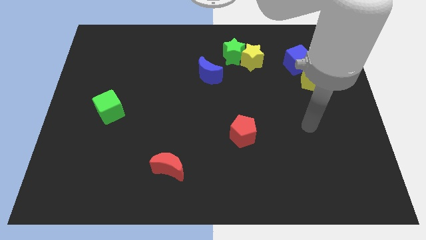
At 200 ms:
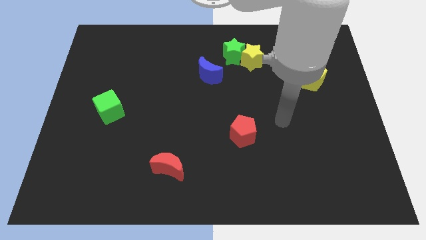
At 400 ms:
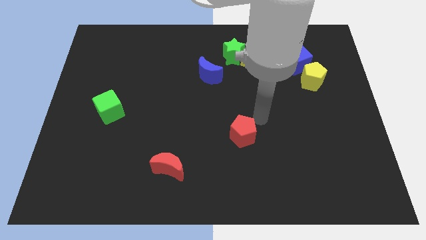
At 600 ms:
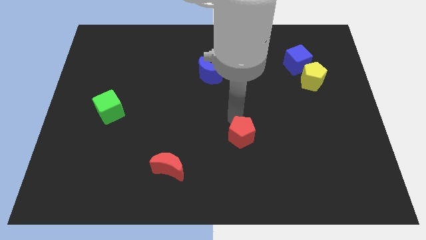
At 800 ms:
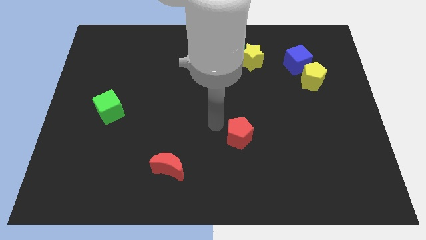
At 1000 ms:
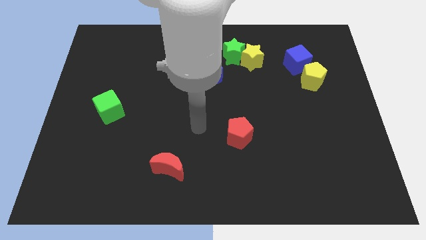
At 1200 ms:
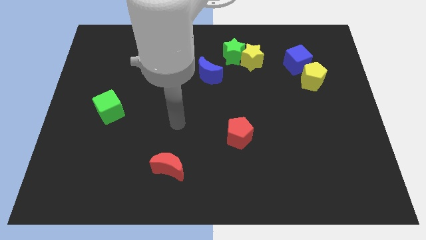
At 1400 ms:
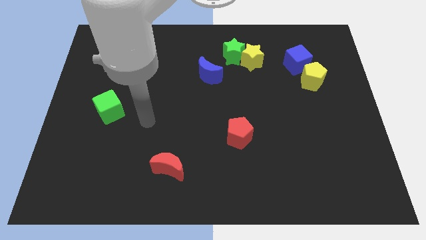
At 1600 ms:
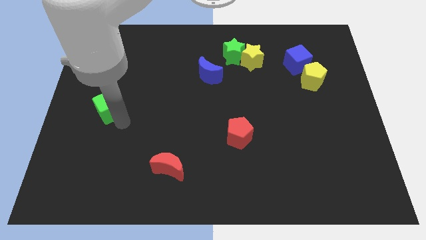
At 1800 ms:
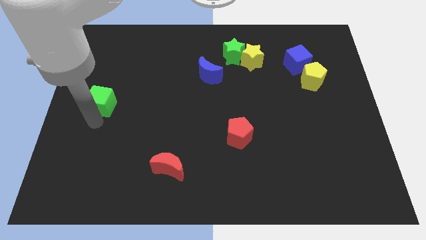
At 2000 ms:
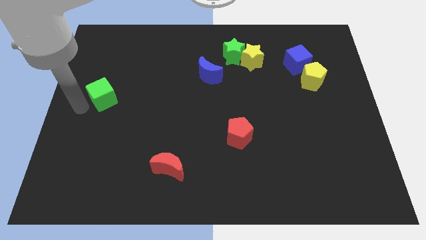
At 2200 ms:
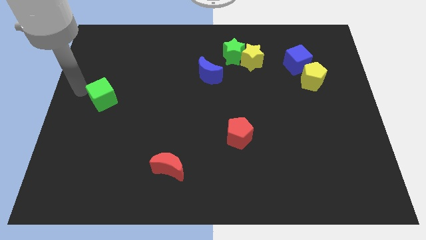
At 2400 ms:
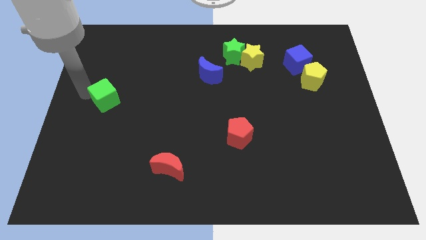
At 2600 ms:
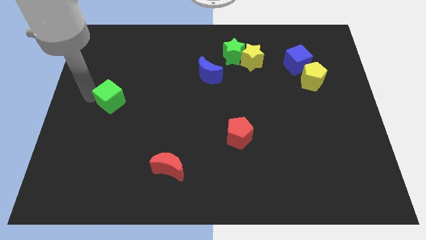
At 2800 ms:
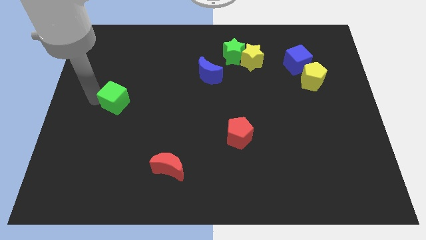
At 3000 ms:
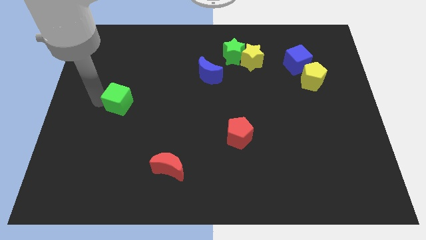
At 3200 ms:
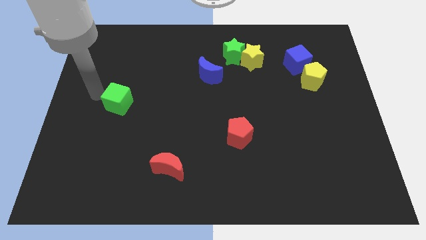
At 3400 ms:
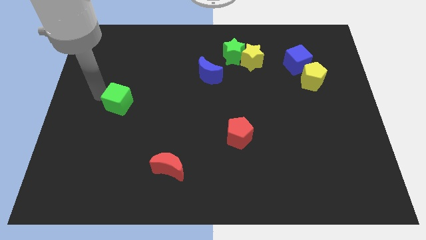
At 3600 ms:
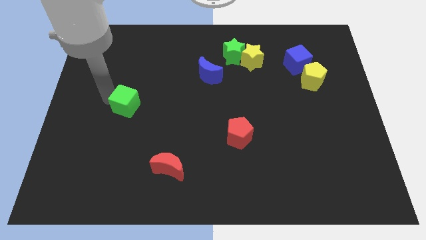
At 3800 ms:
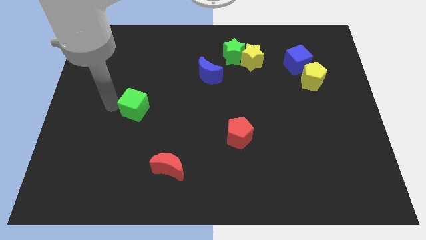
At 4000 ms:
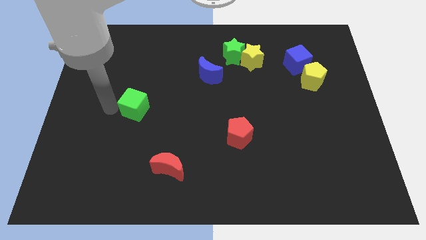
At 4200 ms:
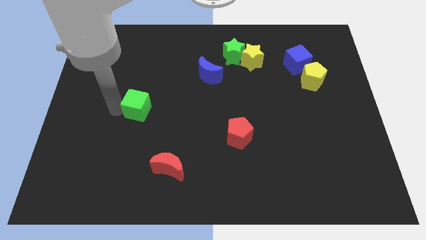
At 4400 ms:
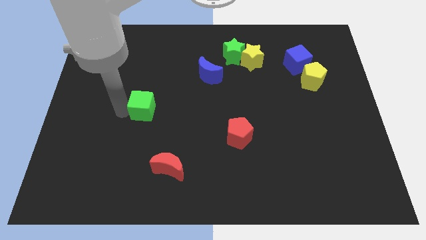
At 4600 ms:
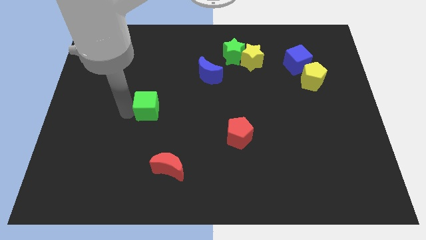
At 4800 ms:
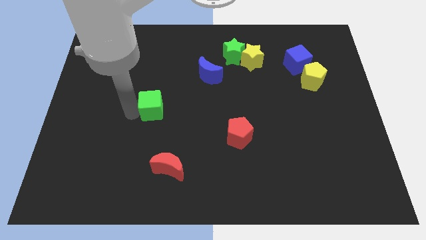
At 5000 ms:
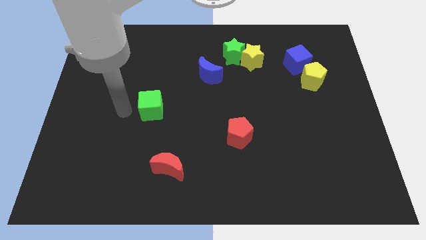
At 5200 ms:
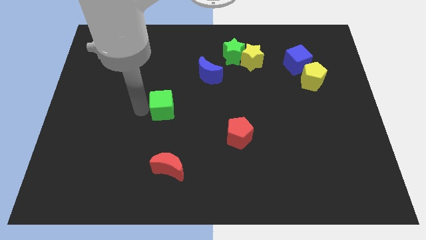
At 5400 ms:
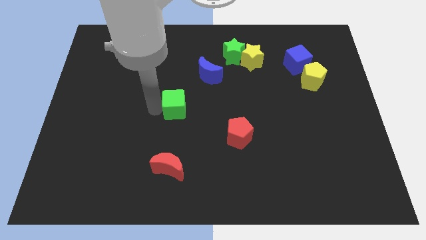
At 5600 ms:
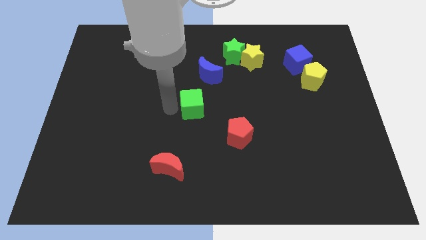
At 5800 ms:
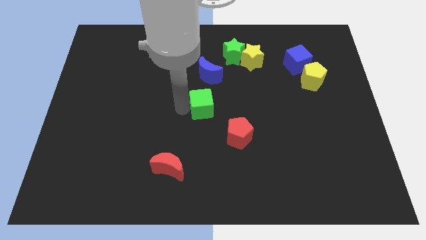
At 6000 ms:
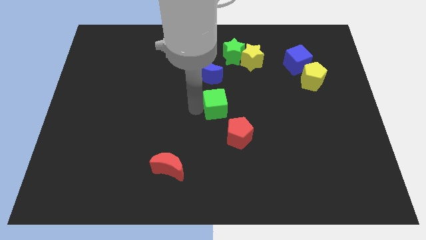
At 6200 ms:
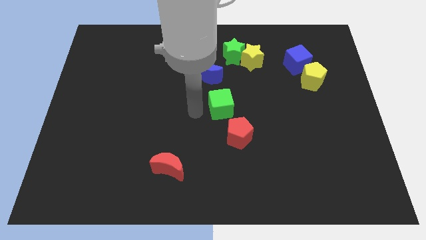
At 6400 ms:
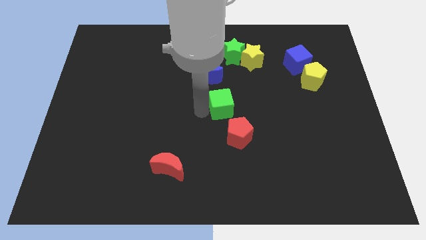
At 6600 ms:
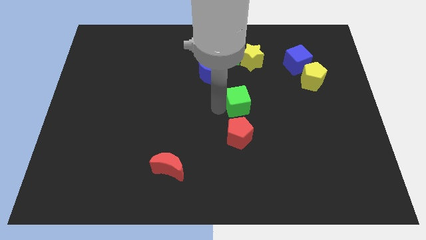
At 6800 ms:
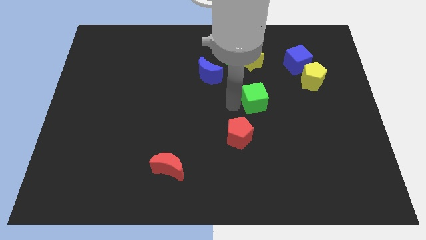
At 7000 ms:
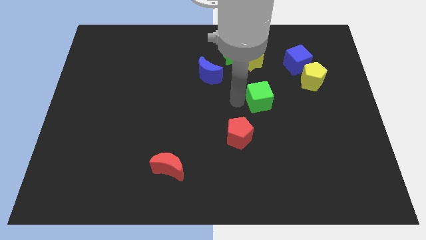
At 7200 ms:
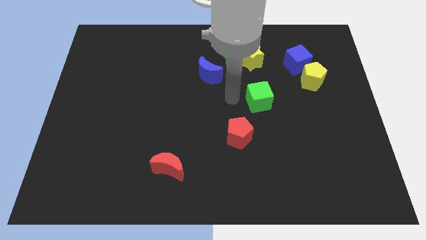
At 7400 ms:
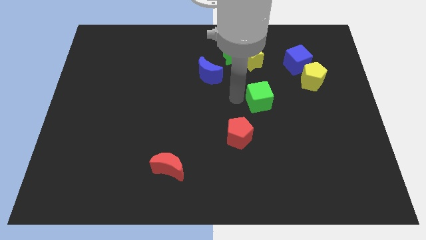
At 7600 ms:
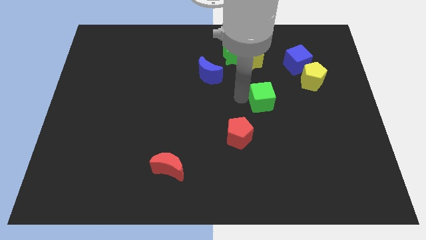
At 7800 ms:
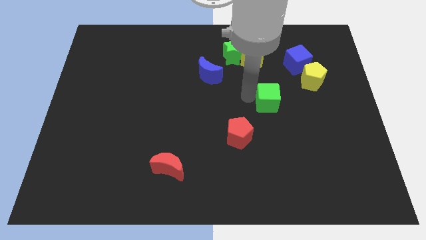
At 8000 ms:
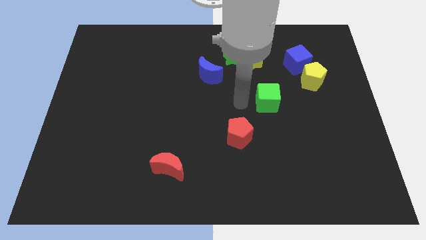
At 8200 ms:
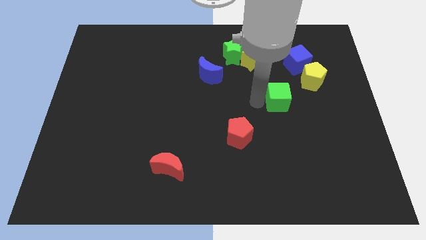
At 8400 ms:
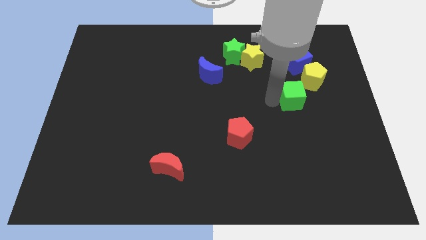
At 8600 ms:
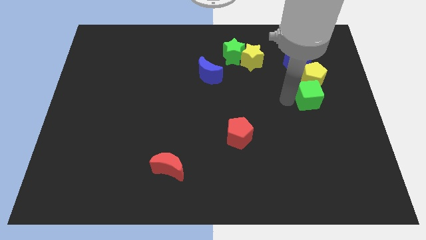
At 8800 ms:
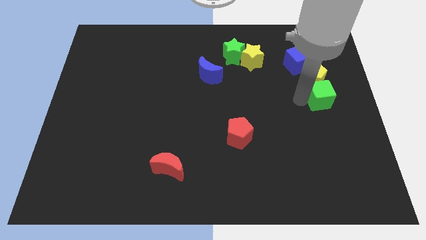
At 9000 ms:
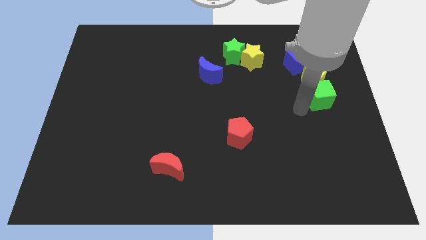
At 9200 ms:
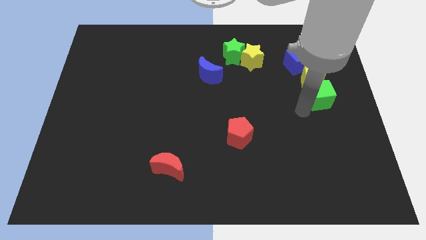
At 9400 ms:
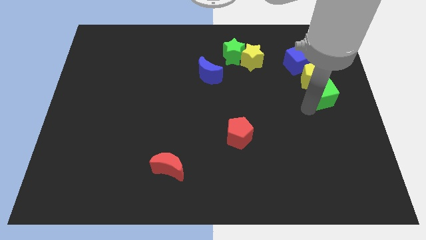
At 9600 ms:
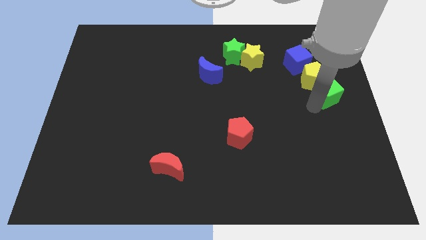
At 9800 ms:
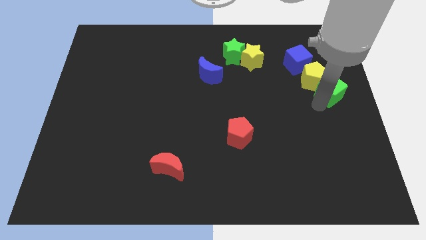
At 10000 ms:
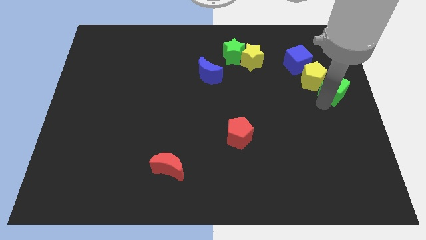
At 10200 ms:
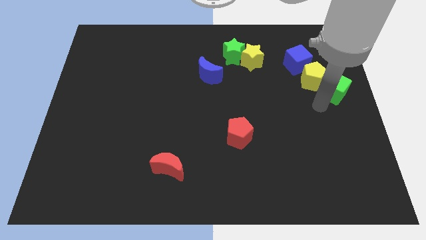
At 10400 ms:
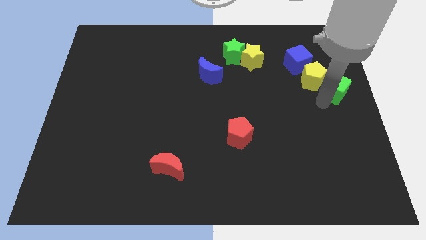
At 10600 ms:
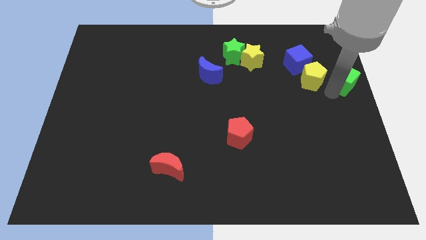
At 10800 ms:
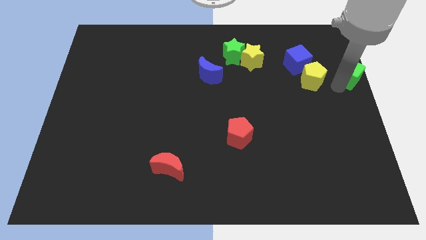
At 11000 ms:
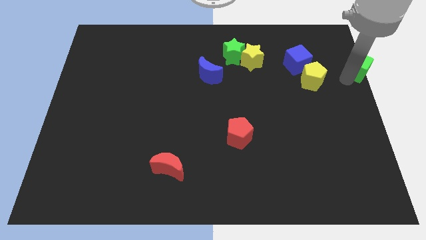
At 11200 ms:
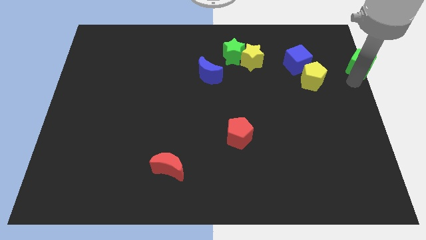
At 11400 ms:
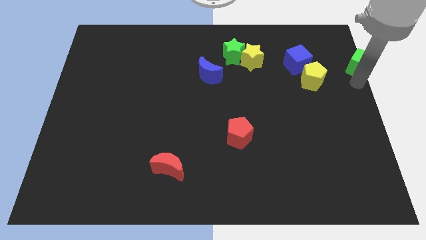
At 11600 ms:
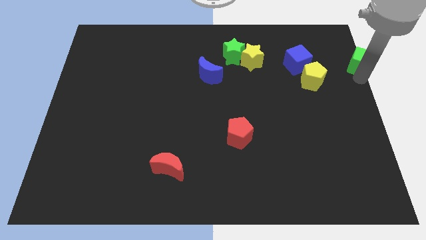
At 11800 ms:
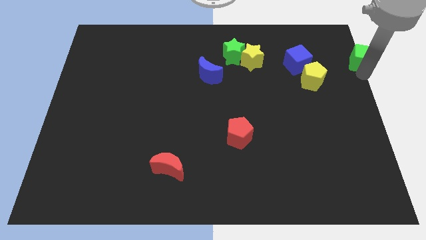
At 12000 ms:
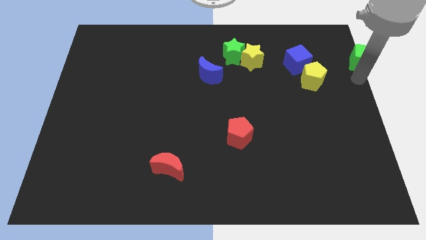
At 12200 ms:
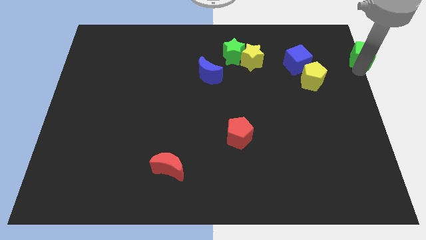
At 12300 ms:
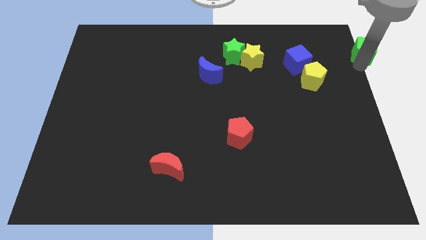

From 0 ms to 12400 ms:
slide the green cube to the upper right corner
